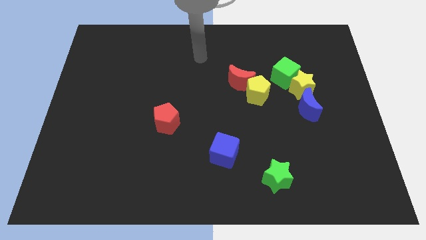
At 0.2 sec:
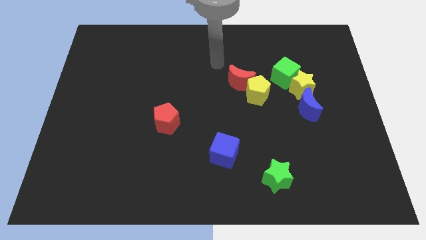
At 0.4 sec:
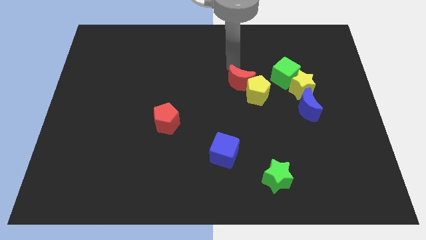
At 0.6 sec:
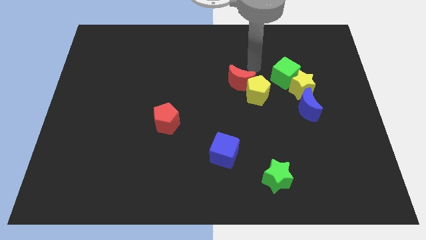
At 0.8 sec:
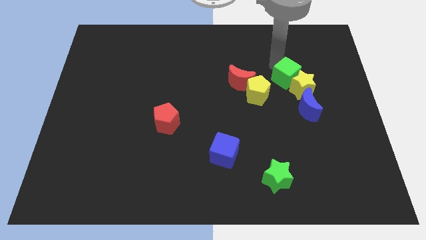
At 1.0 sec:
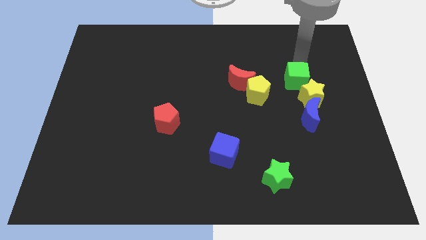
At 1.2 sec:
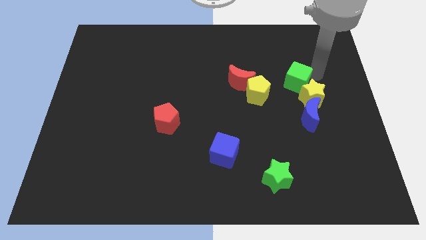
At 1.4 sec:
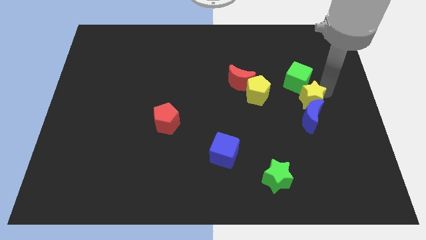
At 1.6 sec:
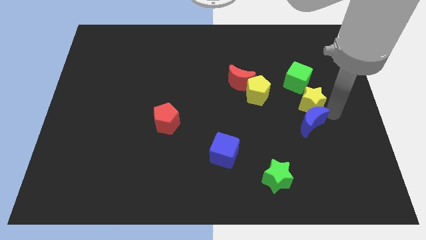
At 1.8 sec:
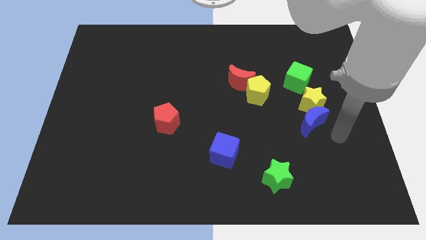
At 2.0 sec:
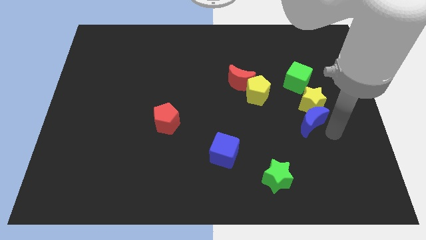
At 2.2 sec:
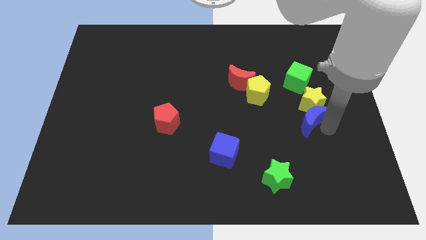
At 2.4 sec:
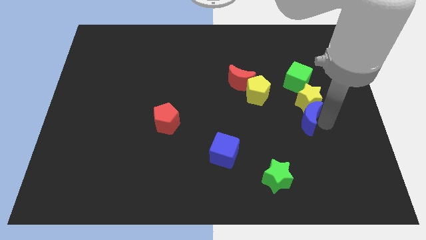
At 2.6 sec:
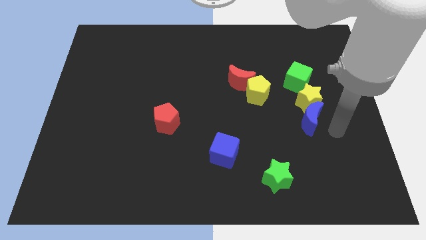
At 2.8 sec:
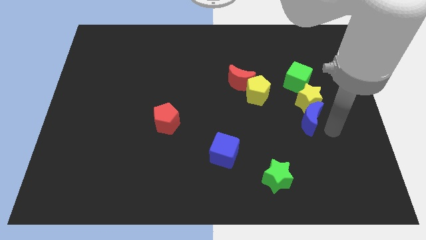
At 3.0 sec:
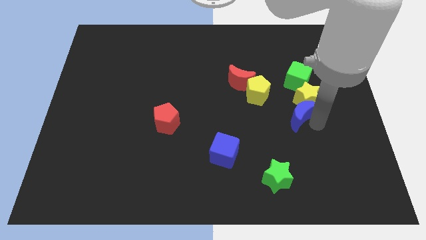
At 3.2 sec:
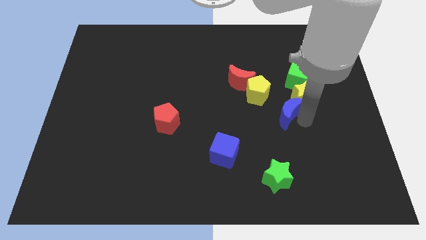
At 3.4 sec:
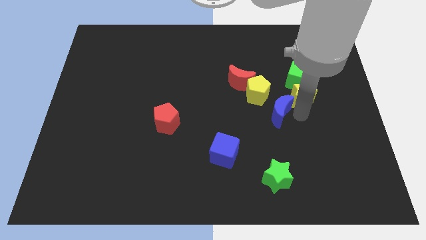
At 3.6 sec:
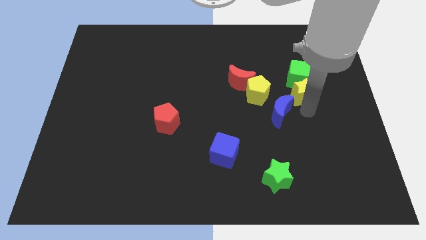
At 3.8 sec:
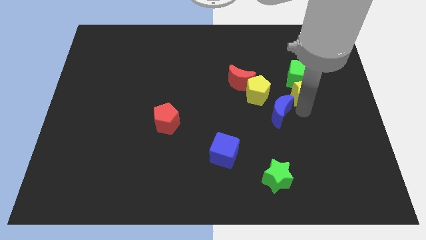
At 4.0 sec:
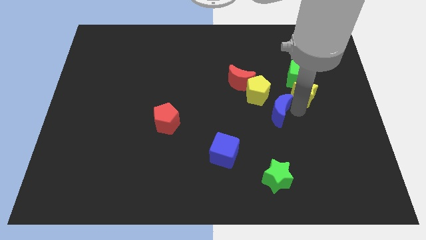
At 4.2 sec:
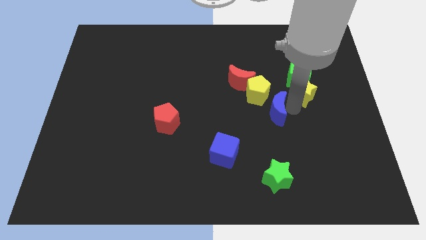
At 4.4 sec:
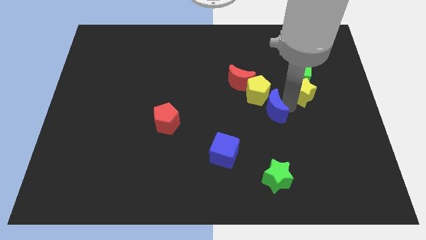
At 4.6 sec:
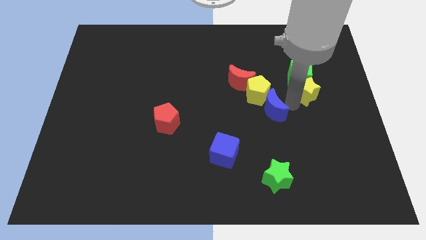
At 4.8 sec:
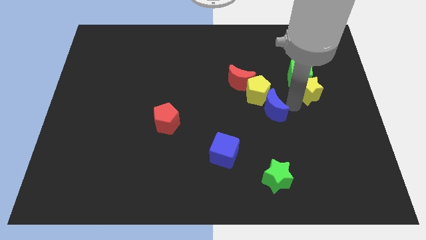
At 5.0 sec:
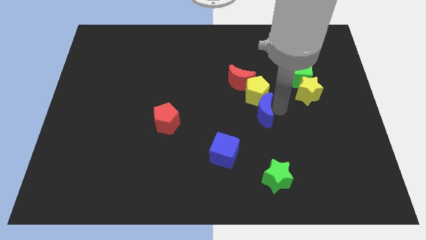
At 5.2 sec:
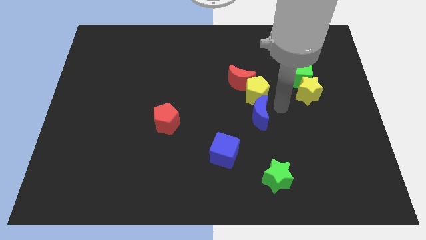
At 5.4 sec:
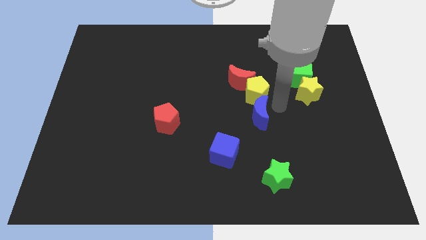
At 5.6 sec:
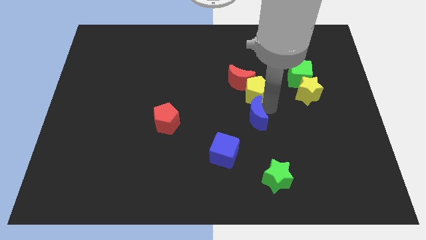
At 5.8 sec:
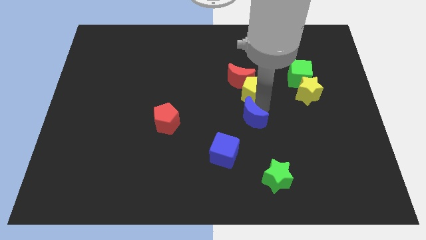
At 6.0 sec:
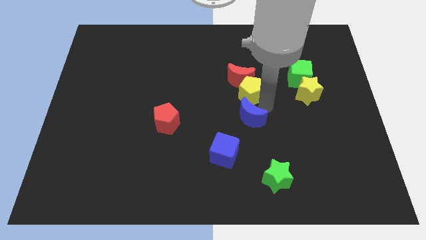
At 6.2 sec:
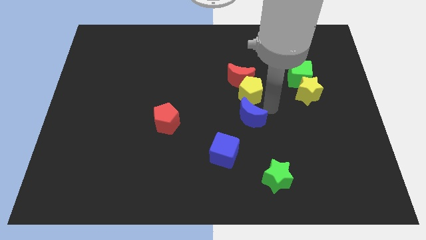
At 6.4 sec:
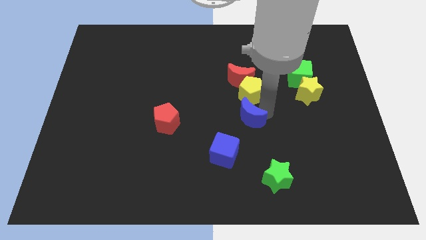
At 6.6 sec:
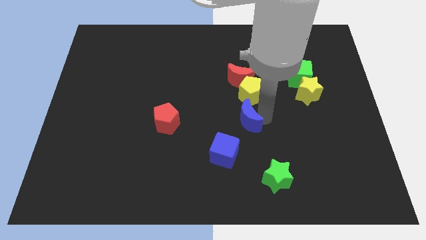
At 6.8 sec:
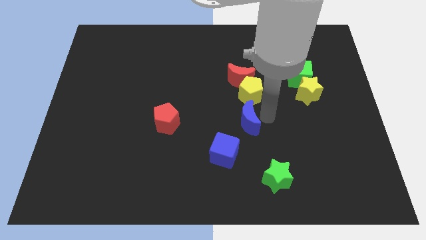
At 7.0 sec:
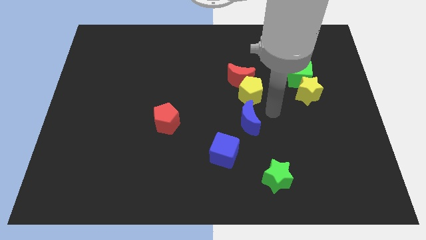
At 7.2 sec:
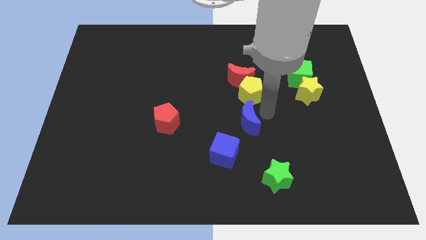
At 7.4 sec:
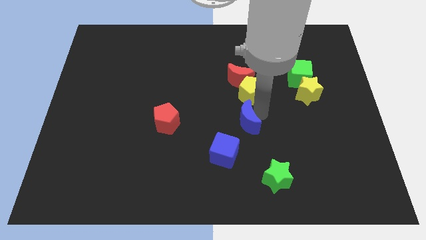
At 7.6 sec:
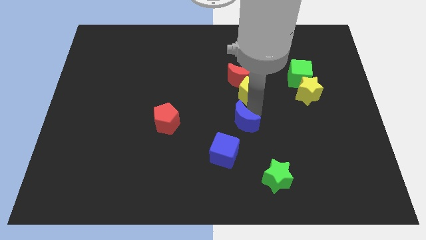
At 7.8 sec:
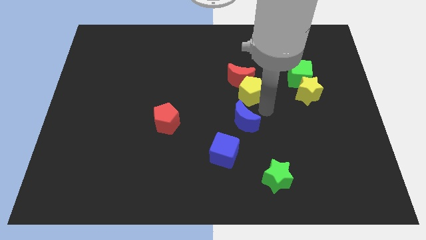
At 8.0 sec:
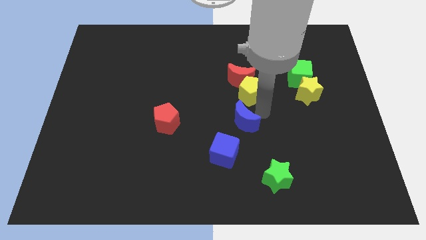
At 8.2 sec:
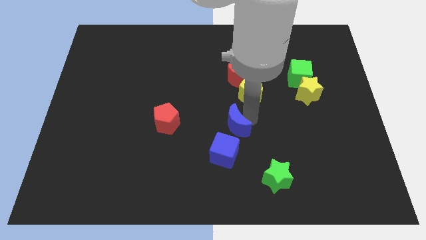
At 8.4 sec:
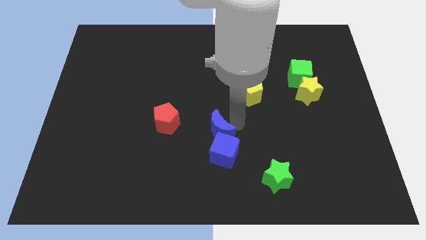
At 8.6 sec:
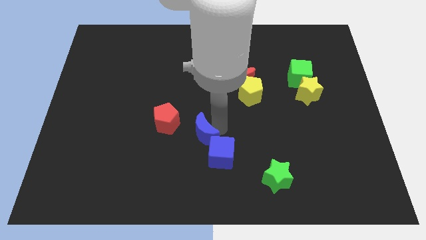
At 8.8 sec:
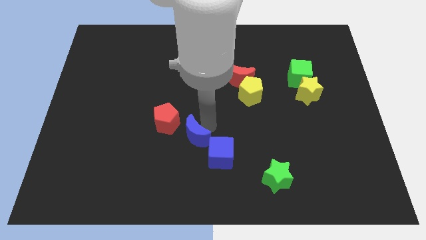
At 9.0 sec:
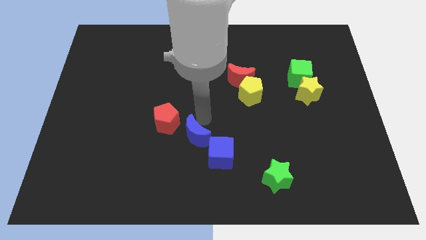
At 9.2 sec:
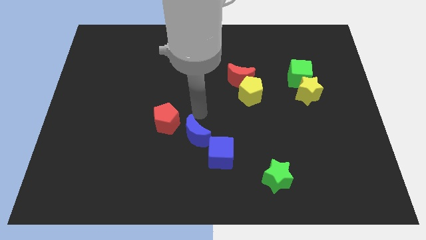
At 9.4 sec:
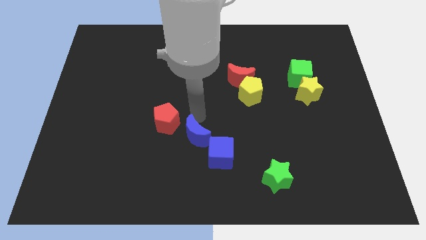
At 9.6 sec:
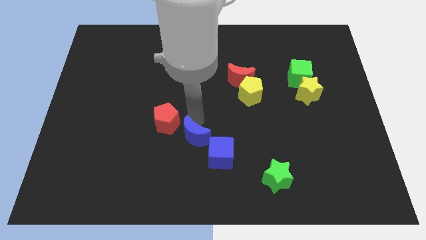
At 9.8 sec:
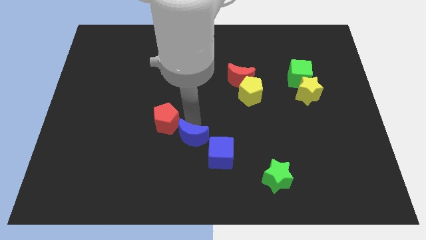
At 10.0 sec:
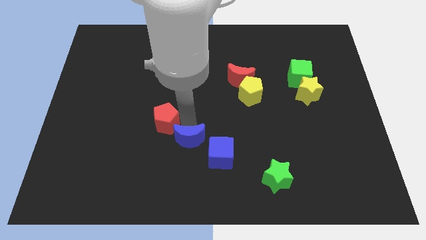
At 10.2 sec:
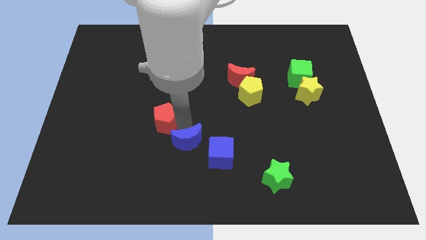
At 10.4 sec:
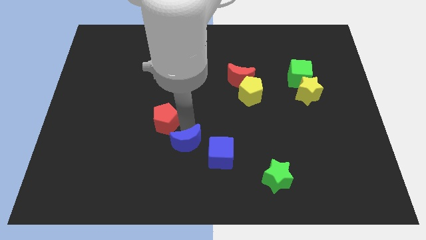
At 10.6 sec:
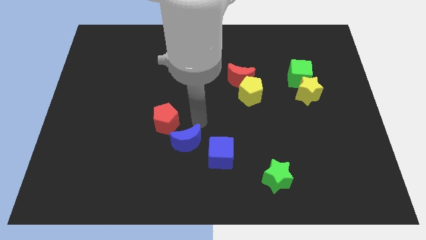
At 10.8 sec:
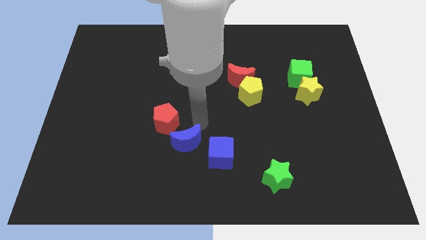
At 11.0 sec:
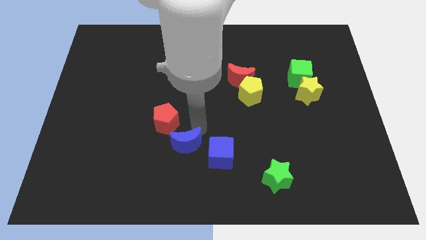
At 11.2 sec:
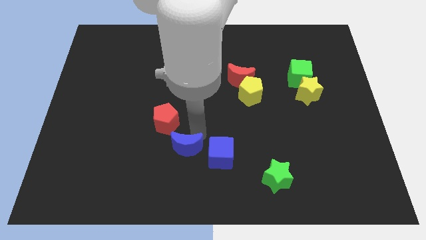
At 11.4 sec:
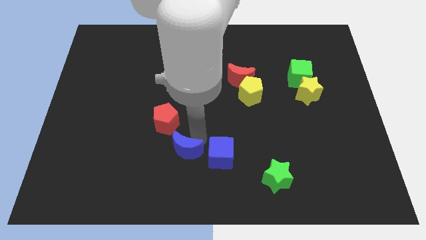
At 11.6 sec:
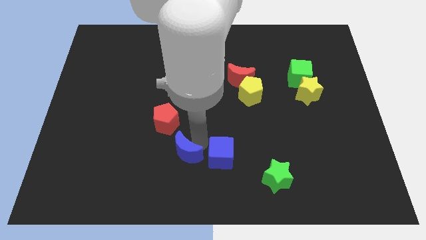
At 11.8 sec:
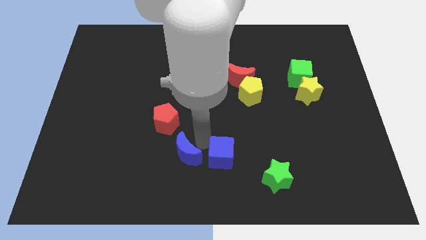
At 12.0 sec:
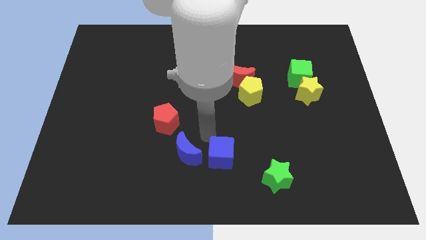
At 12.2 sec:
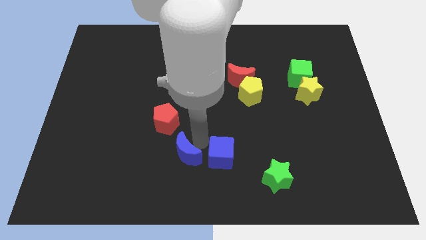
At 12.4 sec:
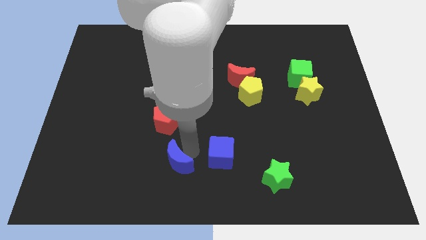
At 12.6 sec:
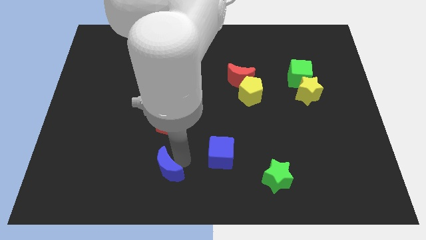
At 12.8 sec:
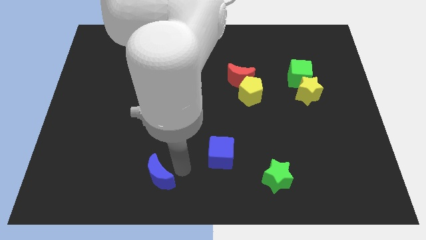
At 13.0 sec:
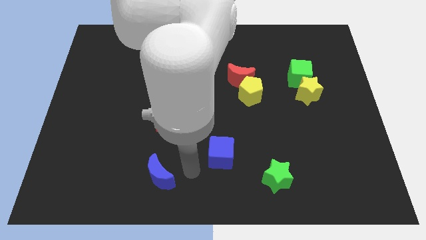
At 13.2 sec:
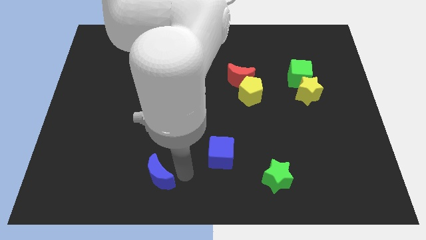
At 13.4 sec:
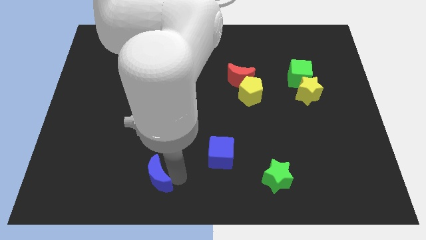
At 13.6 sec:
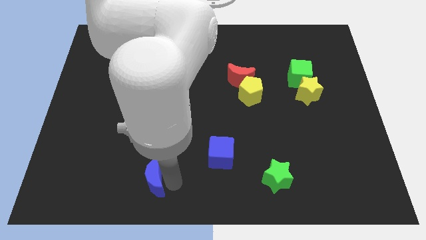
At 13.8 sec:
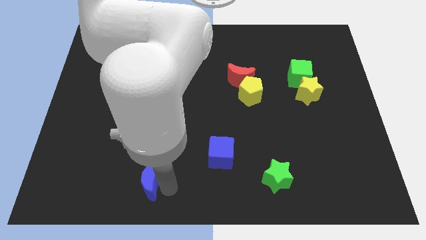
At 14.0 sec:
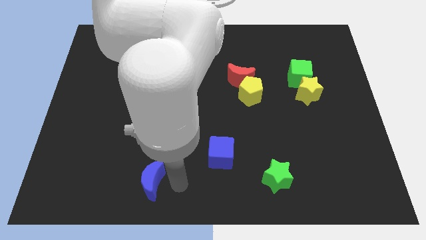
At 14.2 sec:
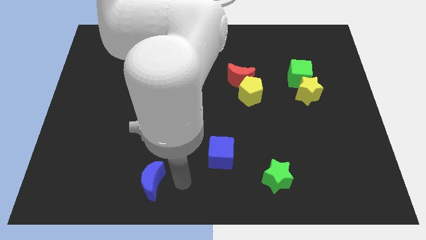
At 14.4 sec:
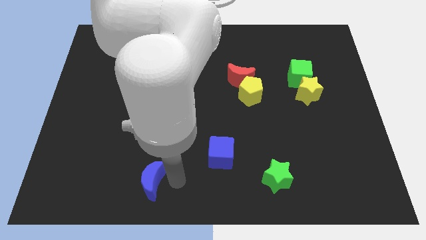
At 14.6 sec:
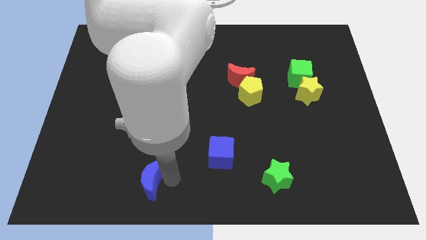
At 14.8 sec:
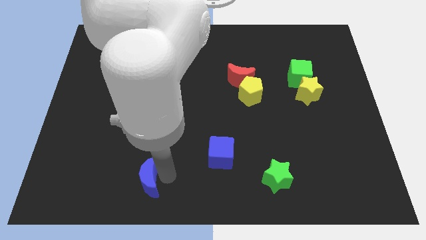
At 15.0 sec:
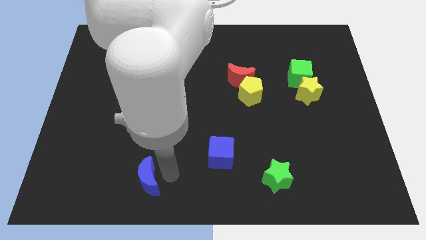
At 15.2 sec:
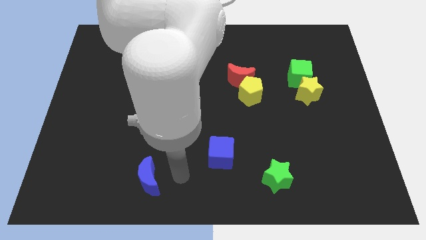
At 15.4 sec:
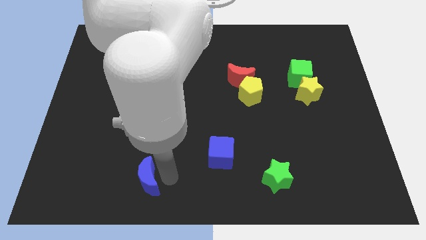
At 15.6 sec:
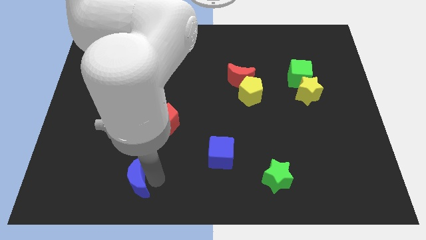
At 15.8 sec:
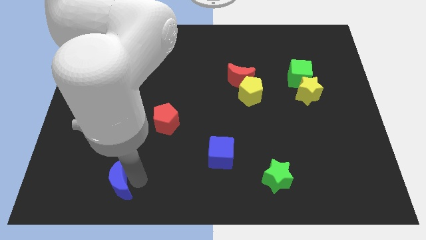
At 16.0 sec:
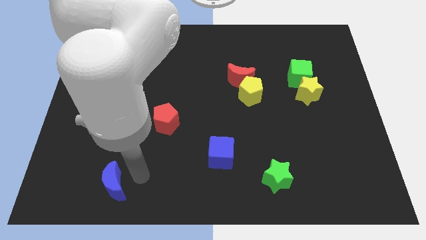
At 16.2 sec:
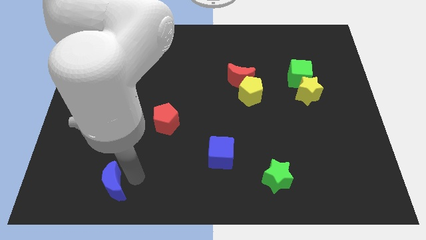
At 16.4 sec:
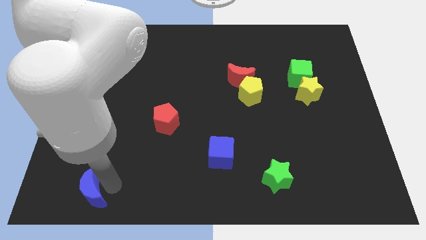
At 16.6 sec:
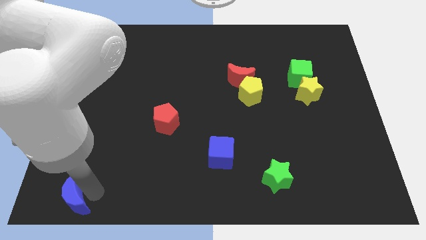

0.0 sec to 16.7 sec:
slide the blue moon to the bottom left
